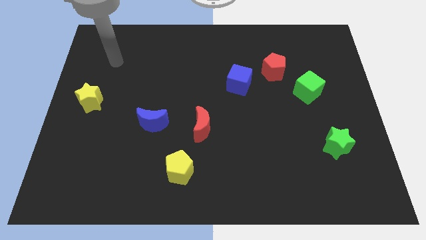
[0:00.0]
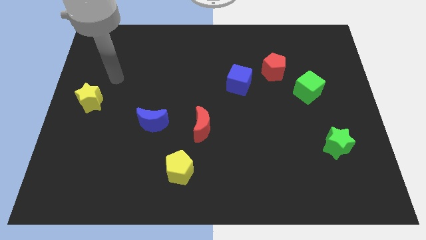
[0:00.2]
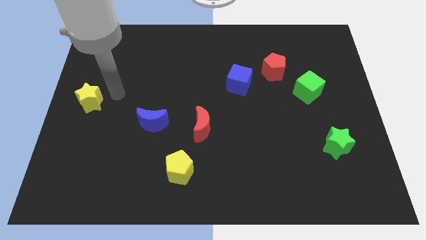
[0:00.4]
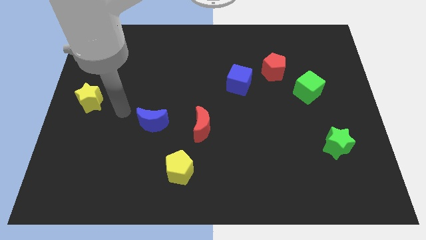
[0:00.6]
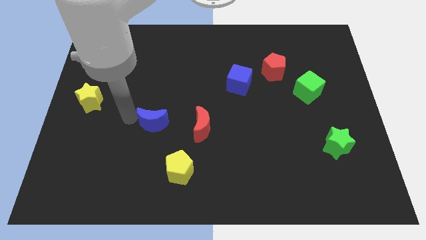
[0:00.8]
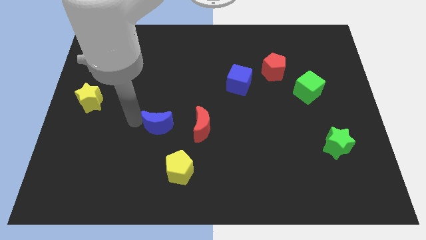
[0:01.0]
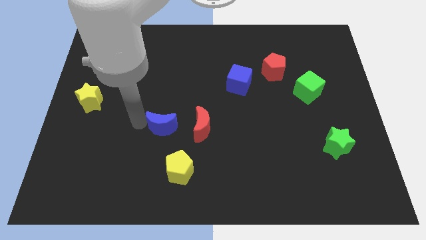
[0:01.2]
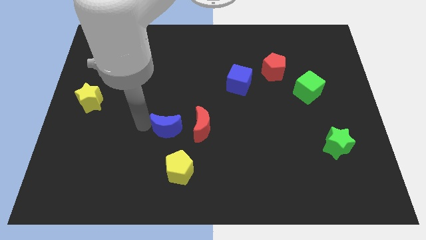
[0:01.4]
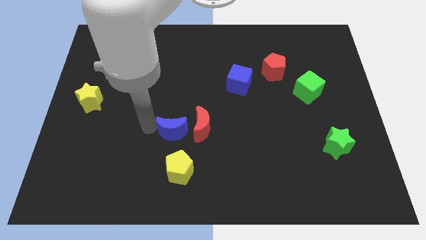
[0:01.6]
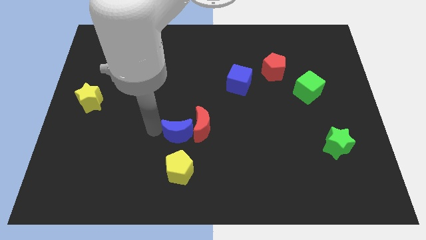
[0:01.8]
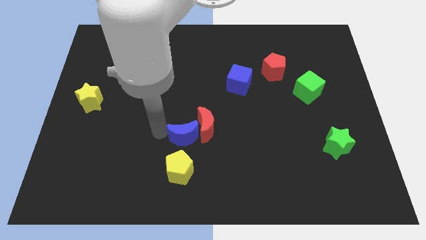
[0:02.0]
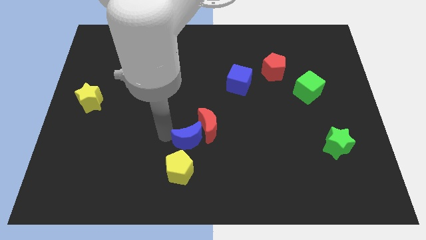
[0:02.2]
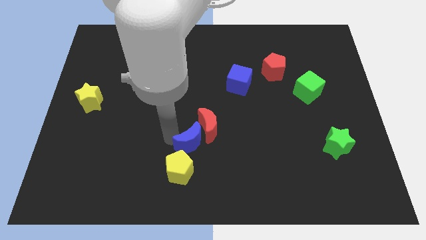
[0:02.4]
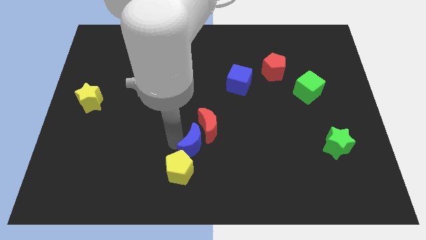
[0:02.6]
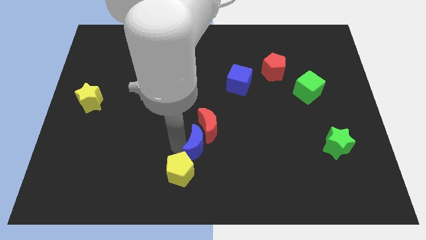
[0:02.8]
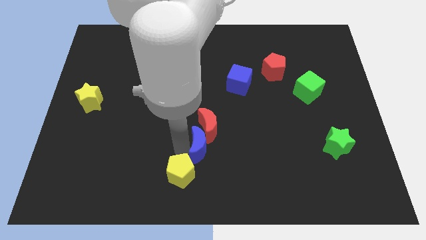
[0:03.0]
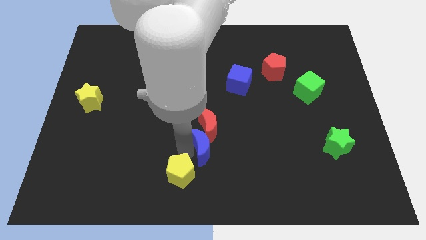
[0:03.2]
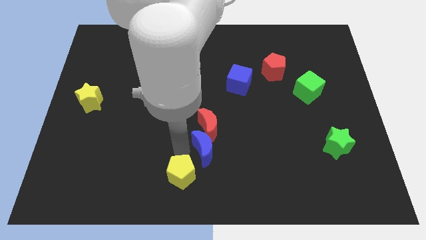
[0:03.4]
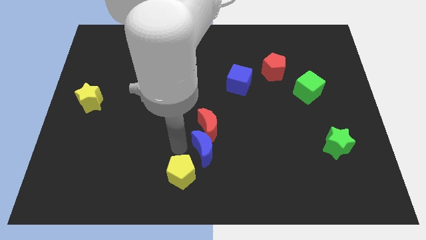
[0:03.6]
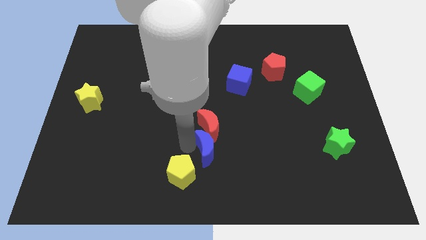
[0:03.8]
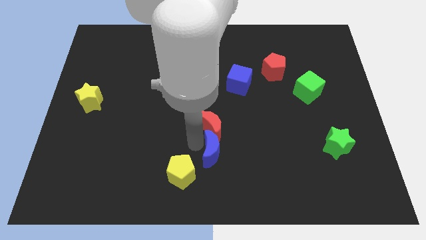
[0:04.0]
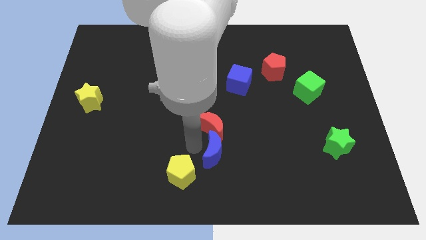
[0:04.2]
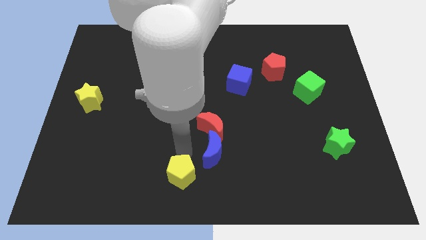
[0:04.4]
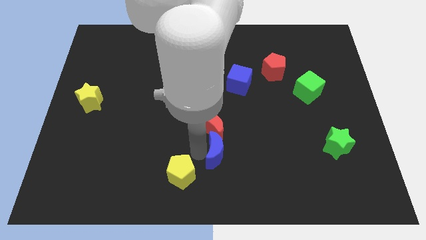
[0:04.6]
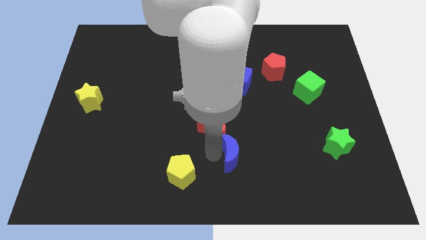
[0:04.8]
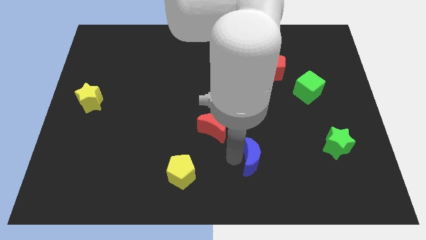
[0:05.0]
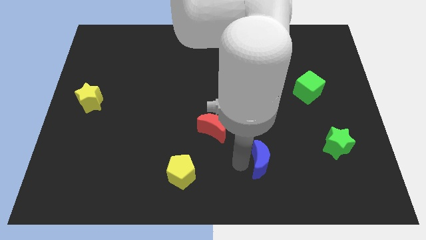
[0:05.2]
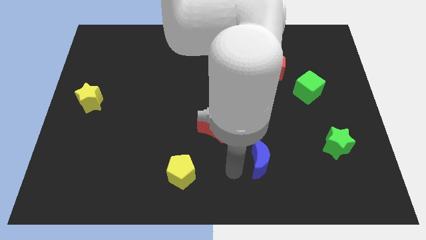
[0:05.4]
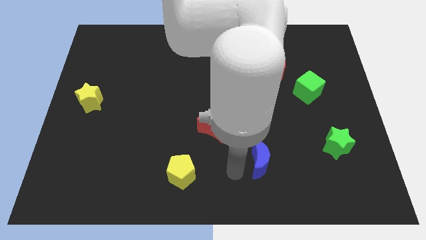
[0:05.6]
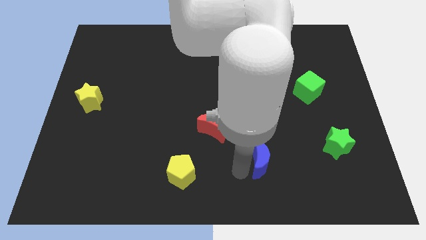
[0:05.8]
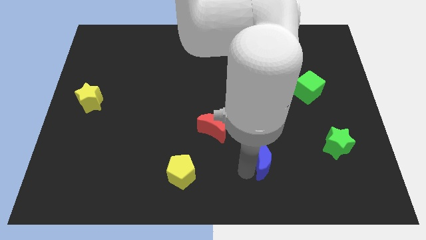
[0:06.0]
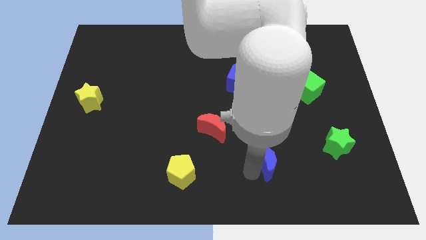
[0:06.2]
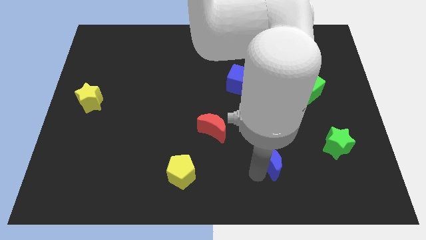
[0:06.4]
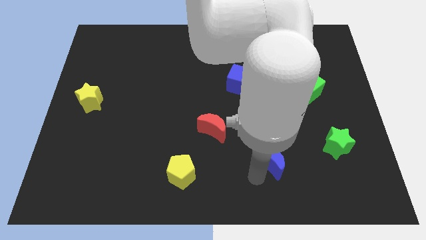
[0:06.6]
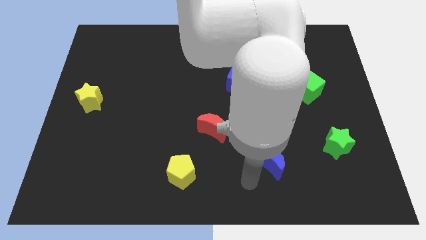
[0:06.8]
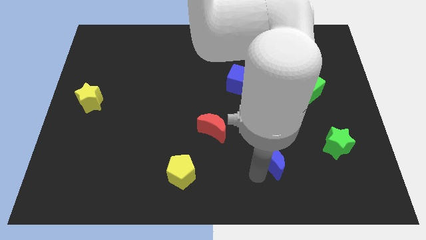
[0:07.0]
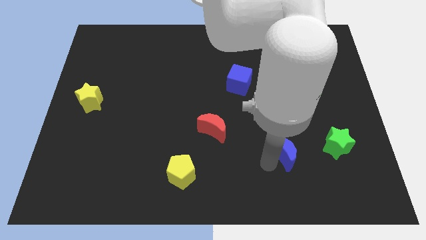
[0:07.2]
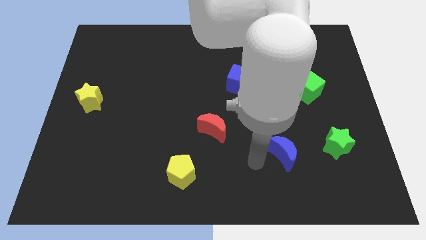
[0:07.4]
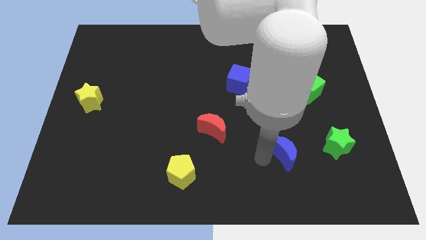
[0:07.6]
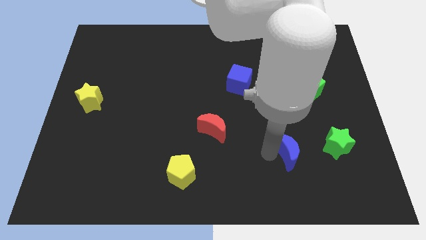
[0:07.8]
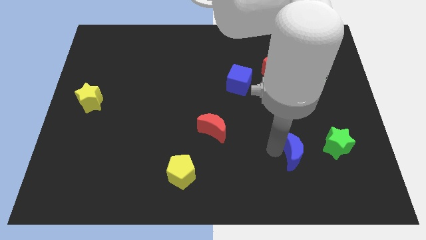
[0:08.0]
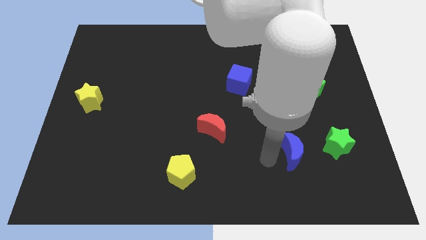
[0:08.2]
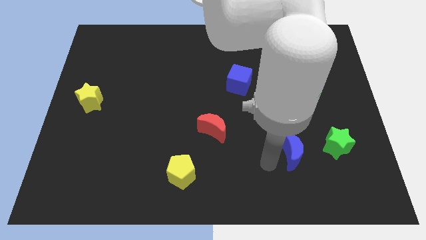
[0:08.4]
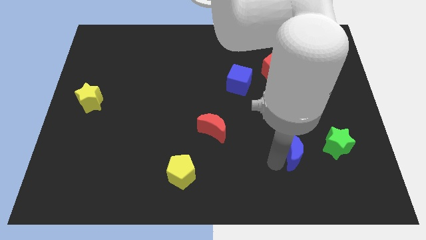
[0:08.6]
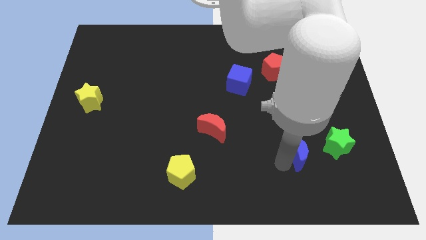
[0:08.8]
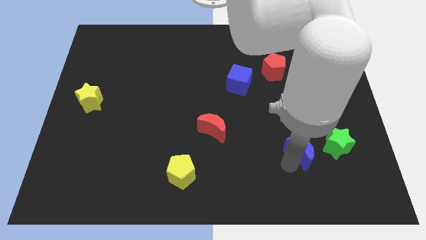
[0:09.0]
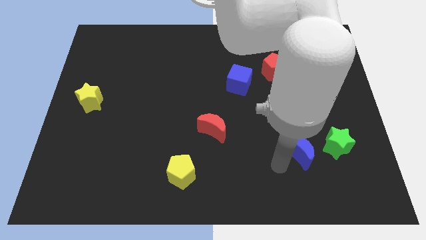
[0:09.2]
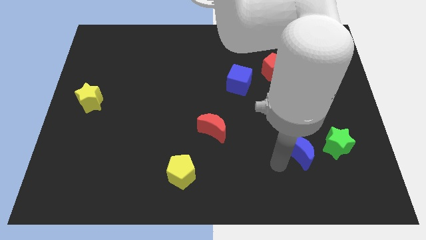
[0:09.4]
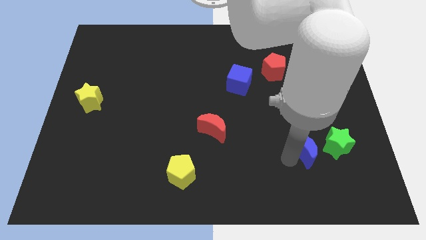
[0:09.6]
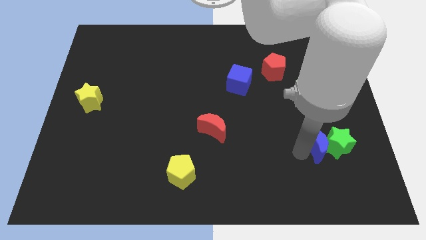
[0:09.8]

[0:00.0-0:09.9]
move the blue moon towards the green star

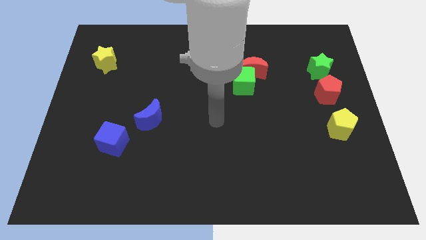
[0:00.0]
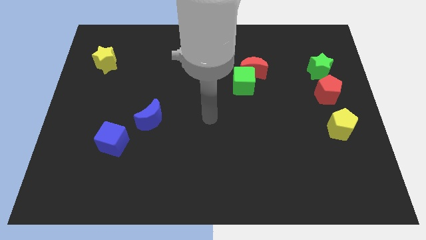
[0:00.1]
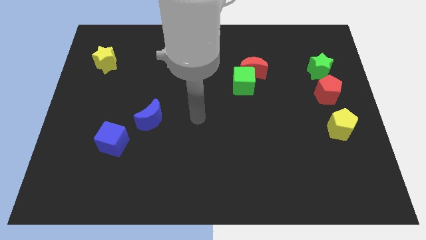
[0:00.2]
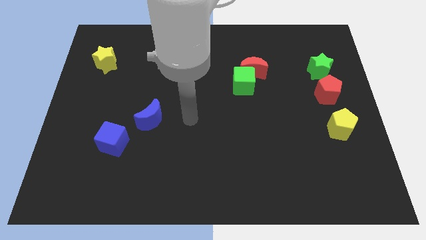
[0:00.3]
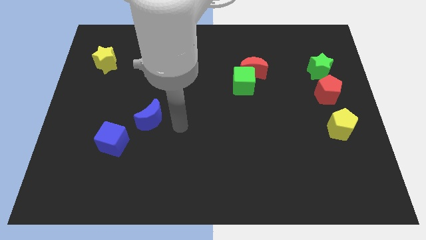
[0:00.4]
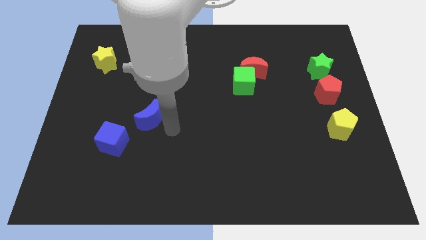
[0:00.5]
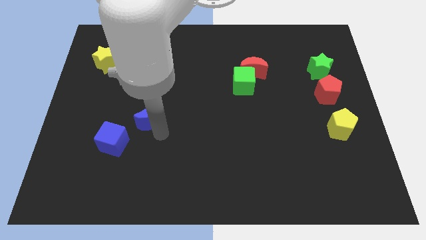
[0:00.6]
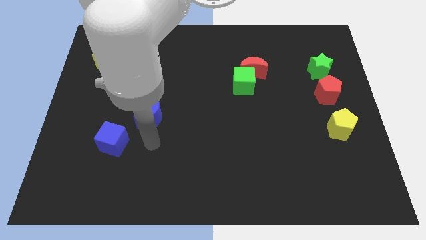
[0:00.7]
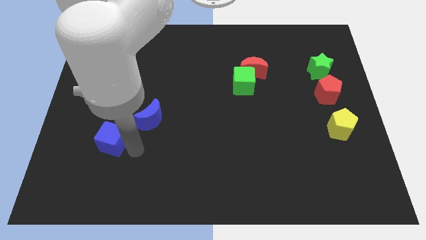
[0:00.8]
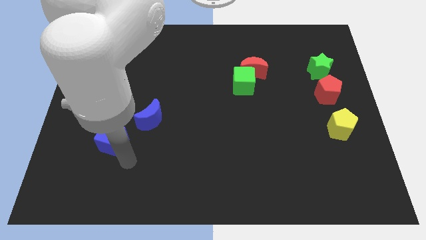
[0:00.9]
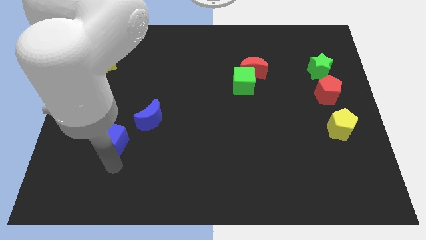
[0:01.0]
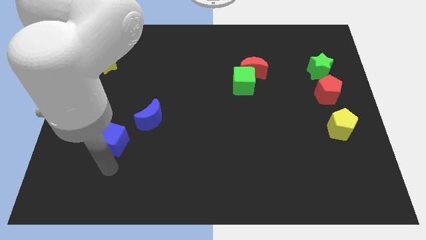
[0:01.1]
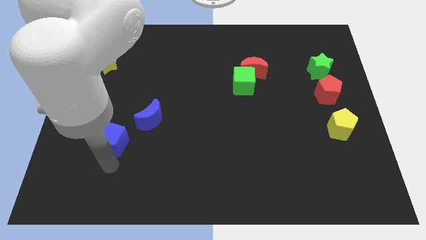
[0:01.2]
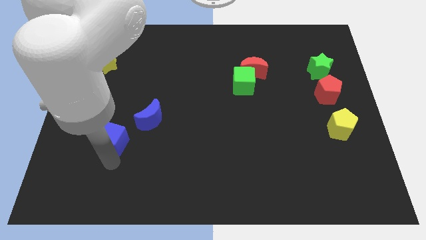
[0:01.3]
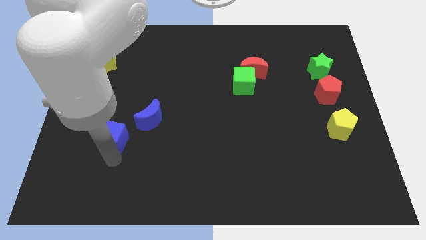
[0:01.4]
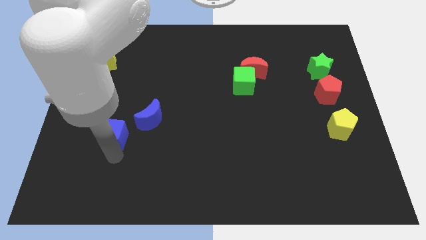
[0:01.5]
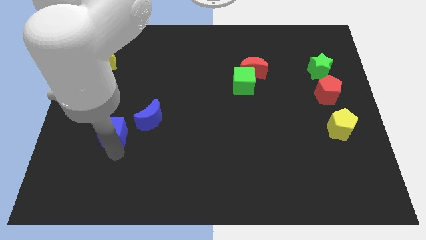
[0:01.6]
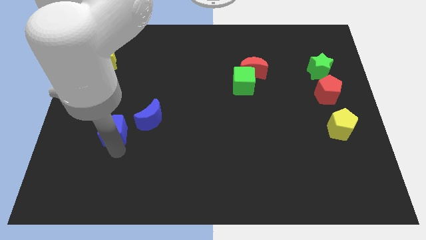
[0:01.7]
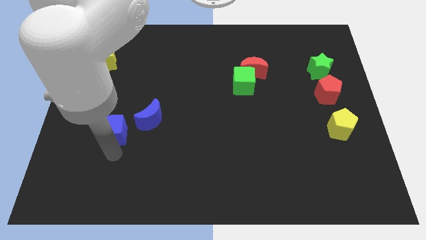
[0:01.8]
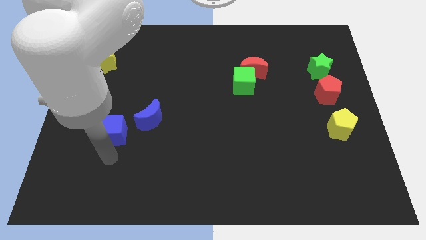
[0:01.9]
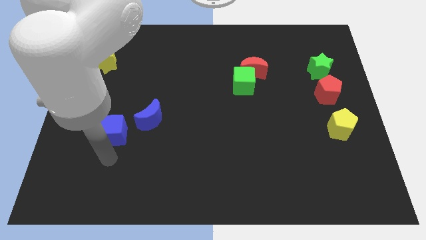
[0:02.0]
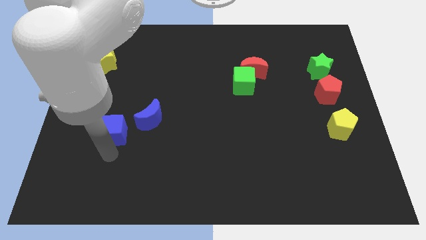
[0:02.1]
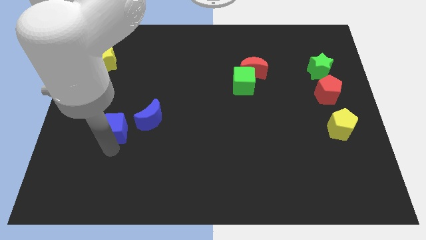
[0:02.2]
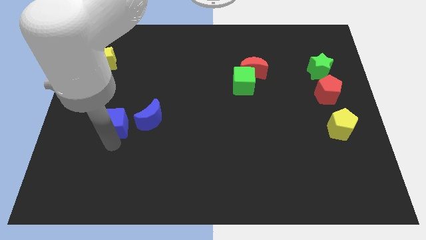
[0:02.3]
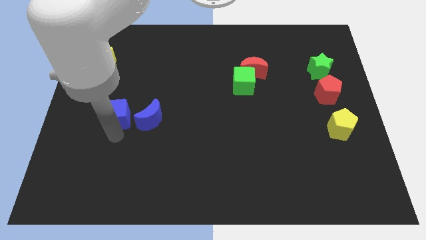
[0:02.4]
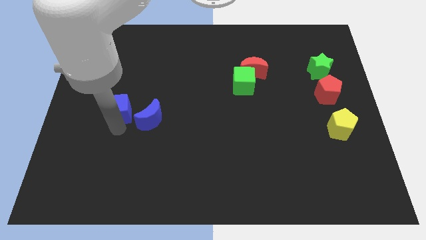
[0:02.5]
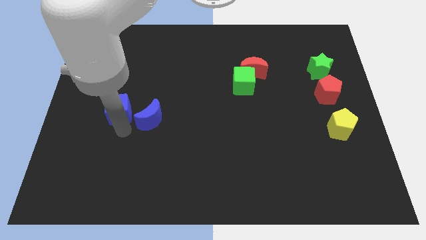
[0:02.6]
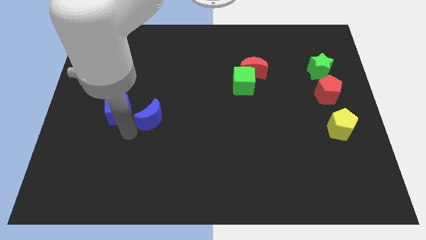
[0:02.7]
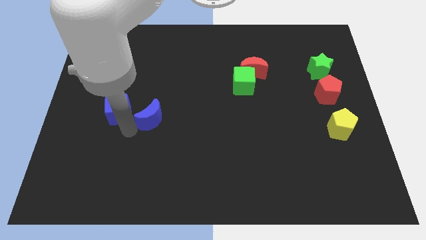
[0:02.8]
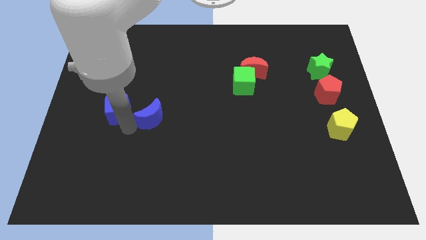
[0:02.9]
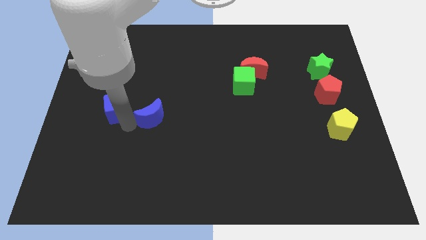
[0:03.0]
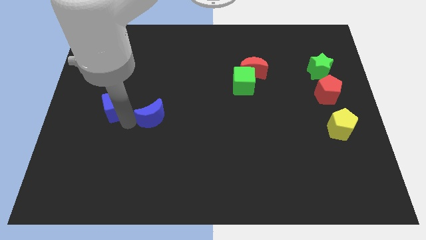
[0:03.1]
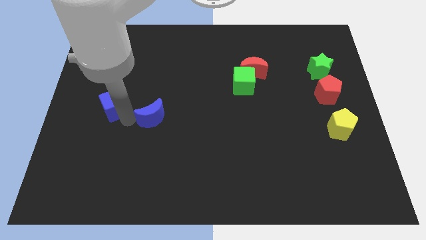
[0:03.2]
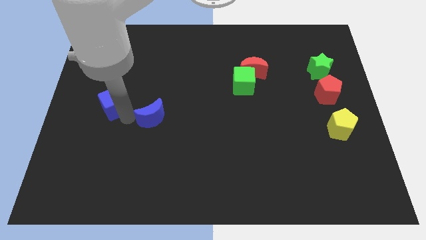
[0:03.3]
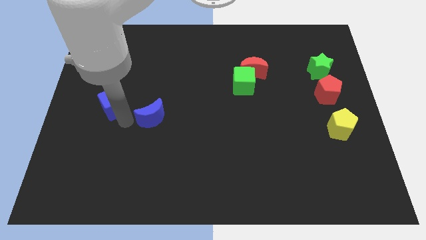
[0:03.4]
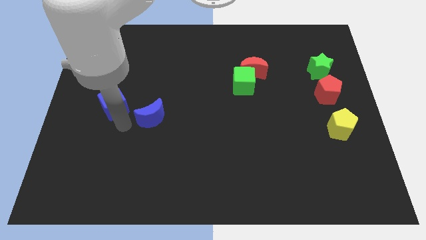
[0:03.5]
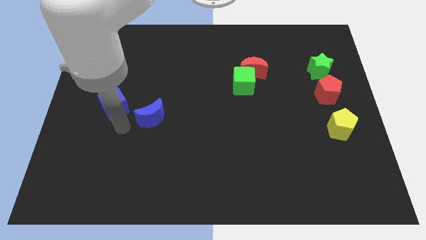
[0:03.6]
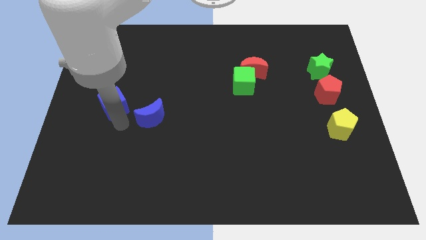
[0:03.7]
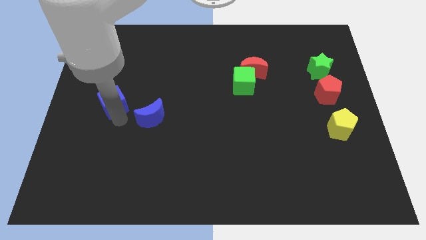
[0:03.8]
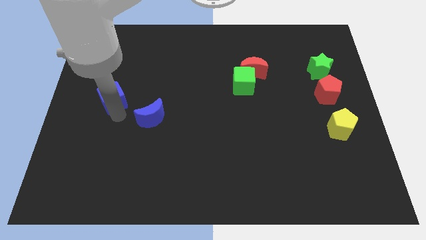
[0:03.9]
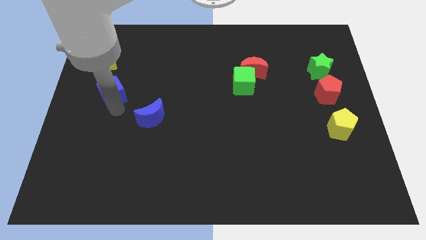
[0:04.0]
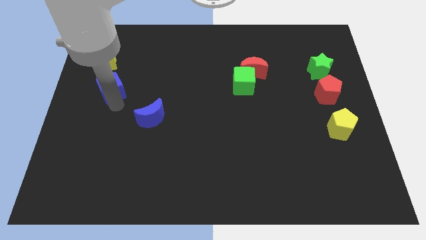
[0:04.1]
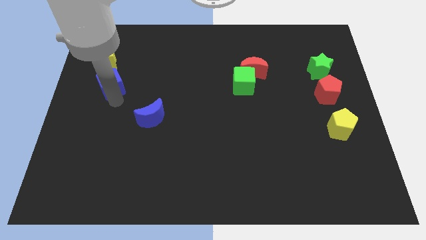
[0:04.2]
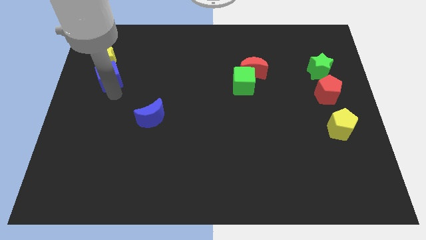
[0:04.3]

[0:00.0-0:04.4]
put the blue cube close to the yellow star
